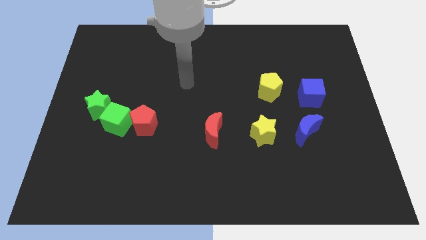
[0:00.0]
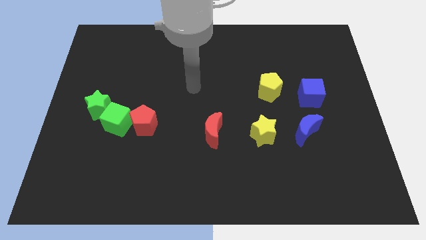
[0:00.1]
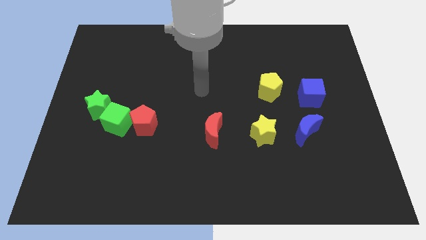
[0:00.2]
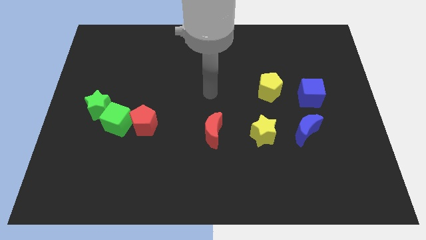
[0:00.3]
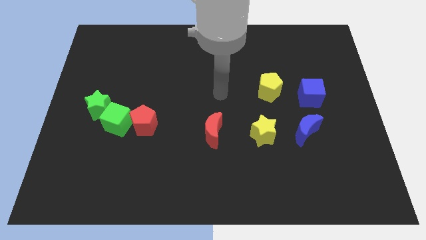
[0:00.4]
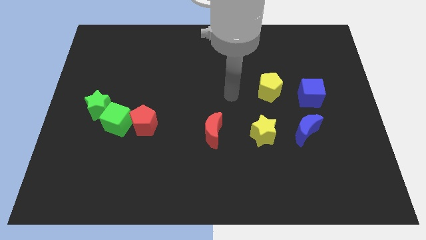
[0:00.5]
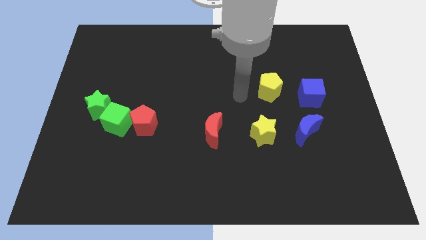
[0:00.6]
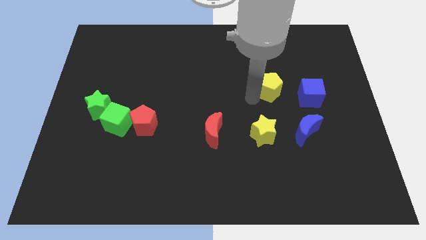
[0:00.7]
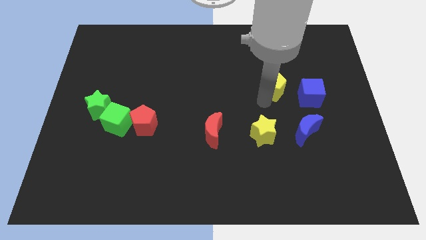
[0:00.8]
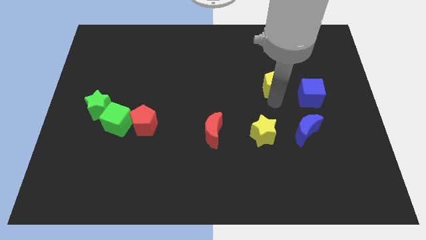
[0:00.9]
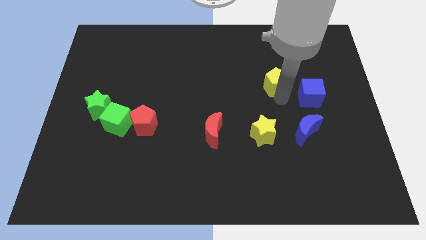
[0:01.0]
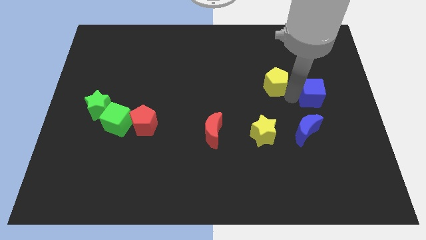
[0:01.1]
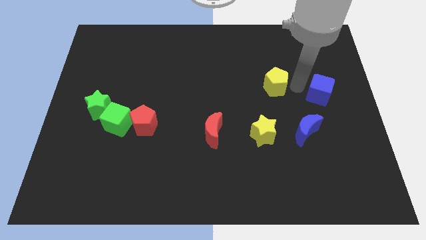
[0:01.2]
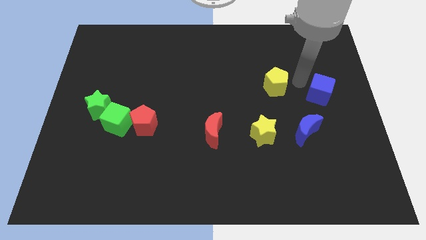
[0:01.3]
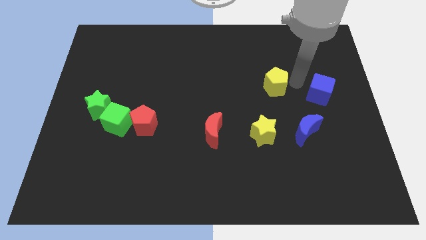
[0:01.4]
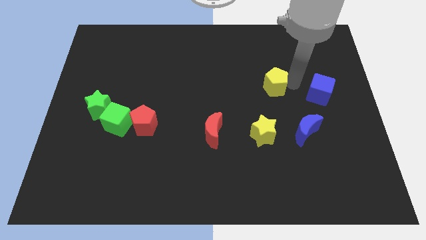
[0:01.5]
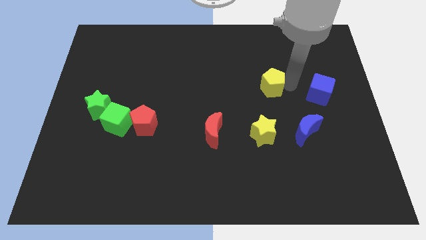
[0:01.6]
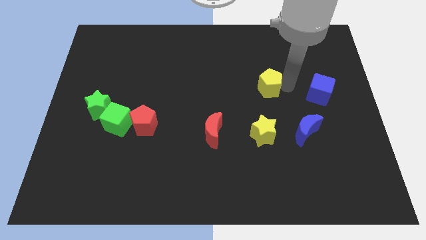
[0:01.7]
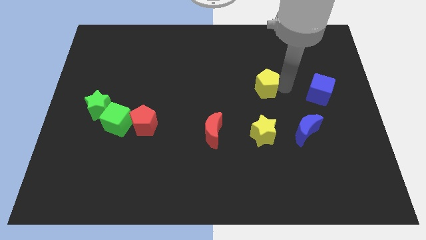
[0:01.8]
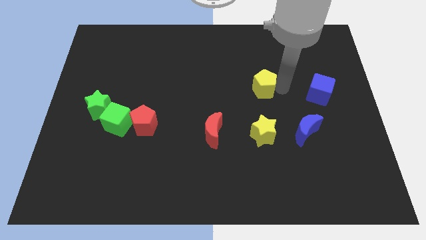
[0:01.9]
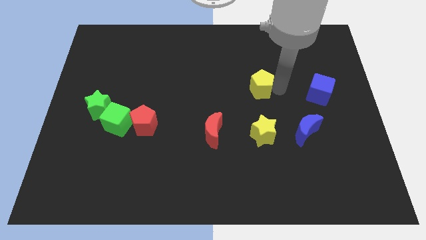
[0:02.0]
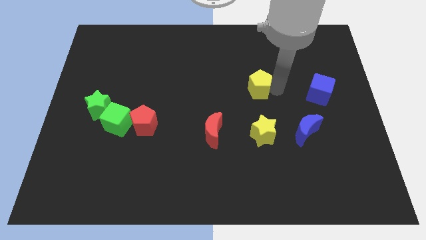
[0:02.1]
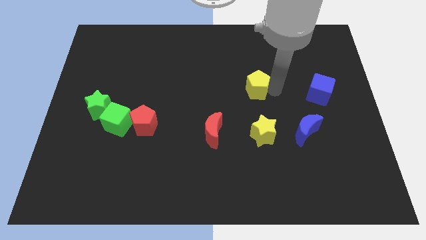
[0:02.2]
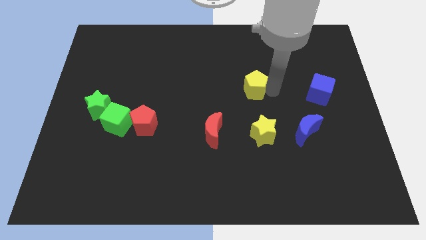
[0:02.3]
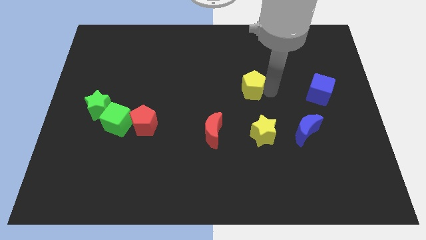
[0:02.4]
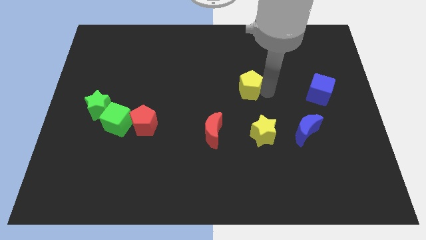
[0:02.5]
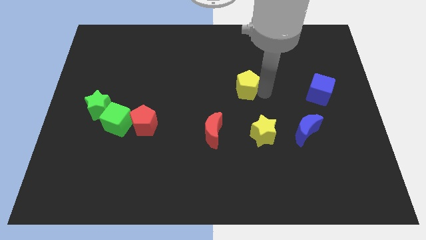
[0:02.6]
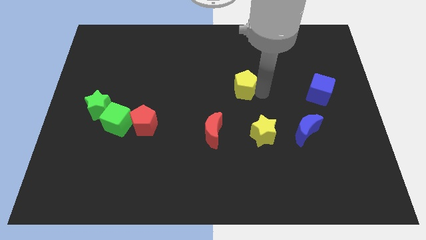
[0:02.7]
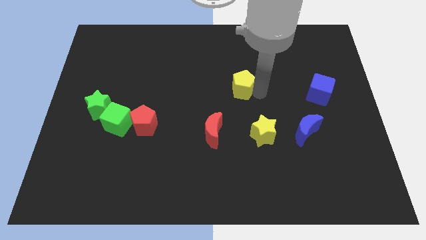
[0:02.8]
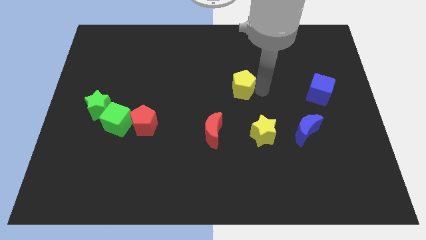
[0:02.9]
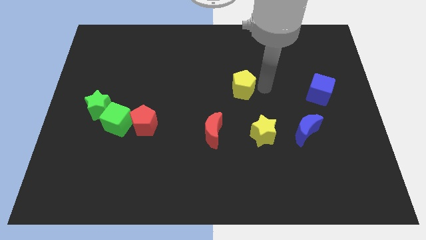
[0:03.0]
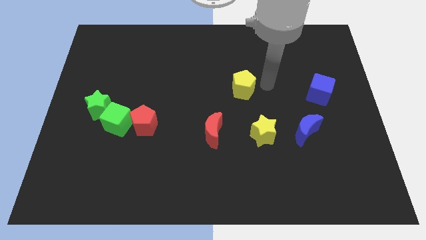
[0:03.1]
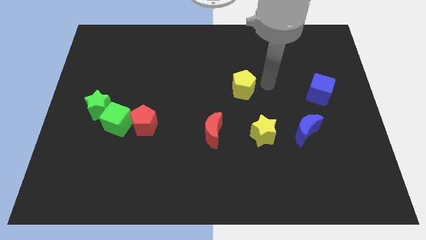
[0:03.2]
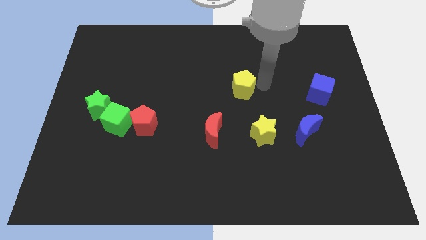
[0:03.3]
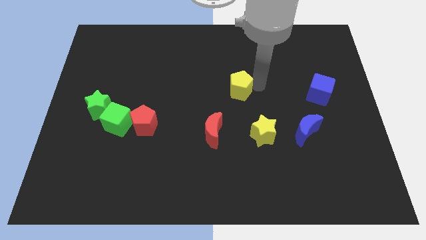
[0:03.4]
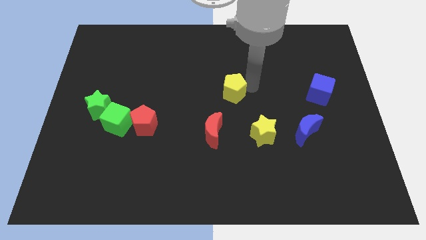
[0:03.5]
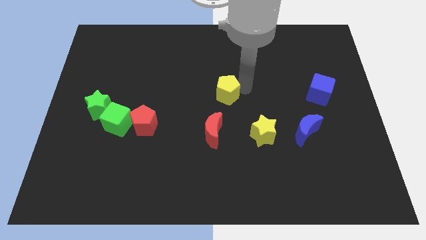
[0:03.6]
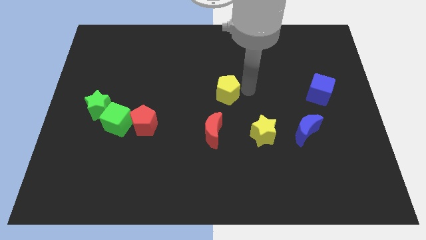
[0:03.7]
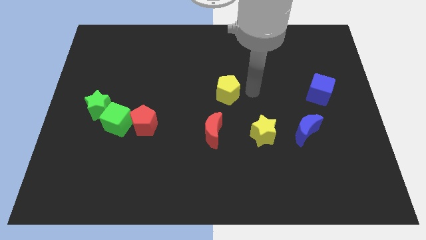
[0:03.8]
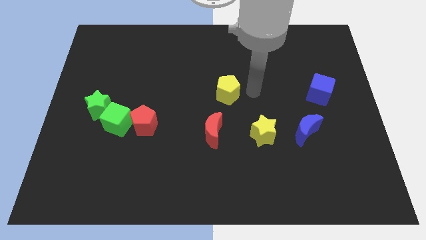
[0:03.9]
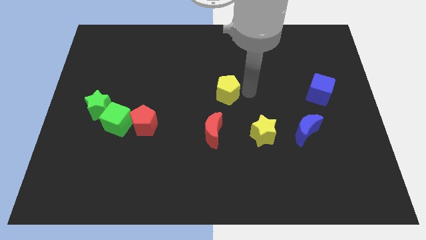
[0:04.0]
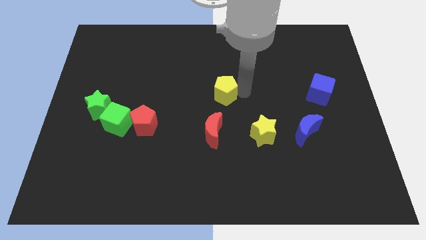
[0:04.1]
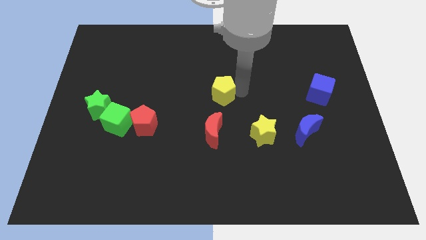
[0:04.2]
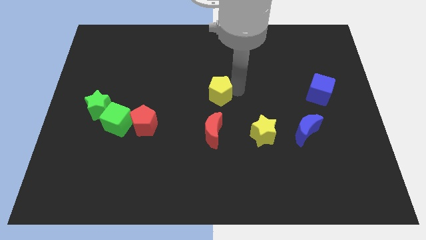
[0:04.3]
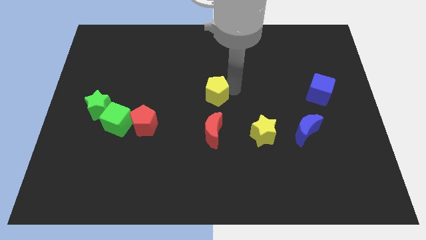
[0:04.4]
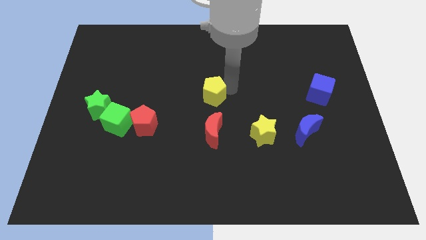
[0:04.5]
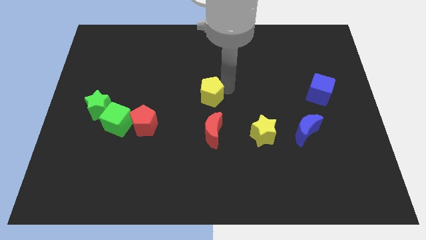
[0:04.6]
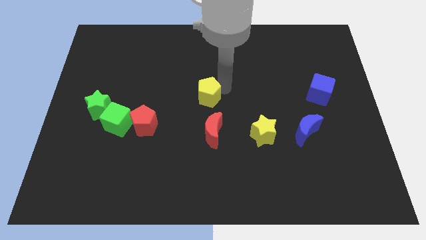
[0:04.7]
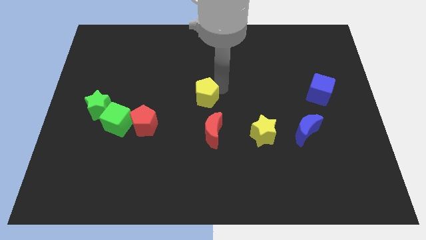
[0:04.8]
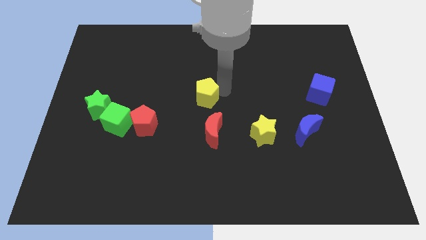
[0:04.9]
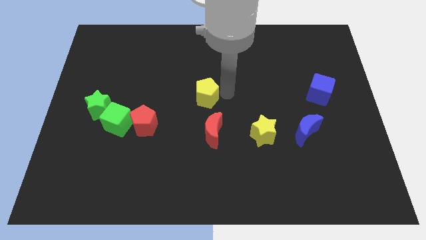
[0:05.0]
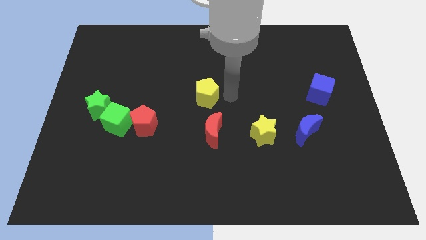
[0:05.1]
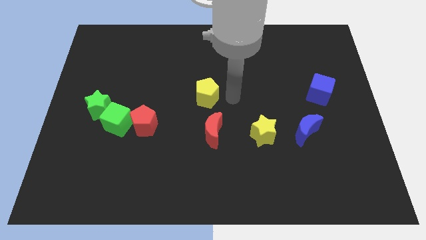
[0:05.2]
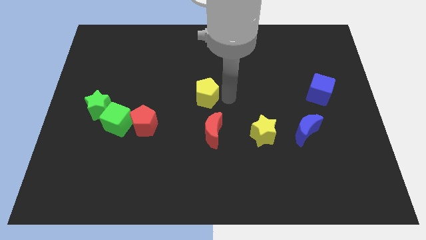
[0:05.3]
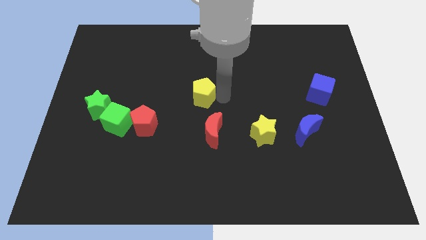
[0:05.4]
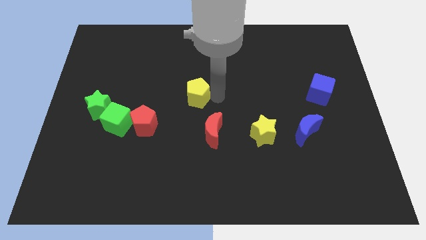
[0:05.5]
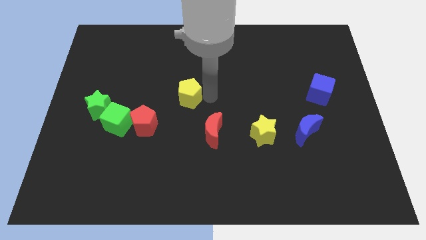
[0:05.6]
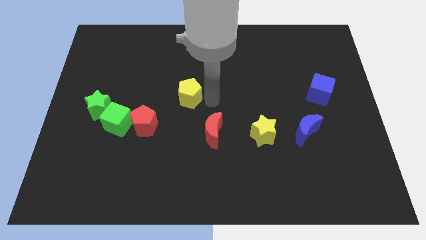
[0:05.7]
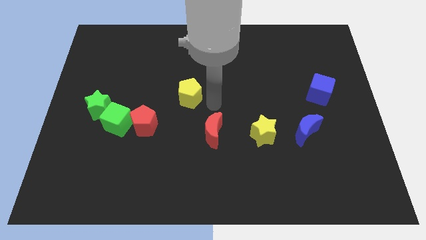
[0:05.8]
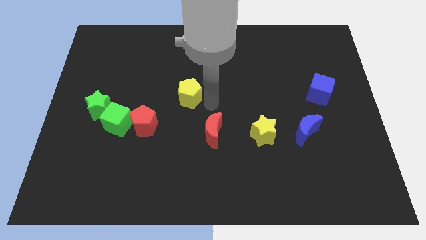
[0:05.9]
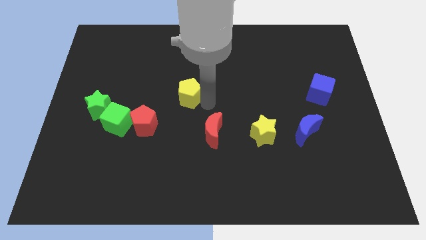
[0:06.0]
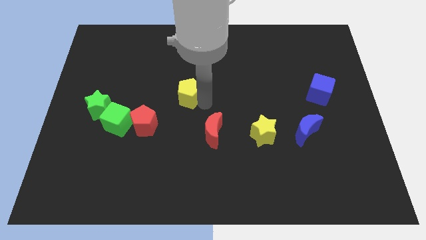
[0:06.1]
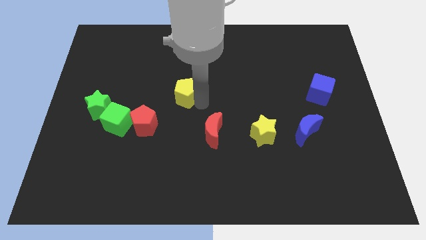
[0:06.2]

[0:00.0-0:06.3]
slide the yellow pentagon left

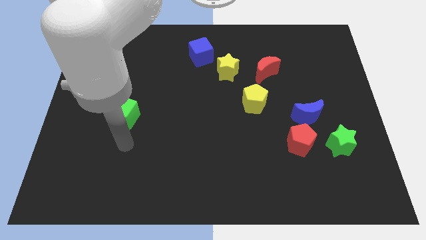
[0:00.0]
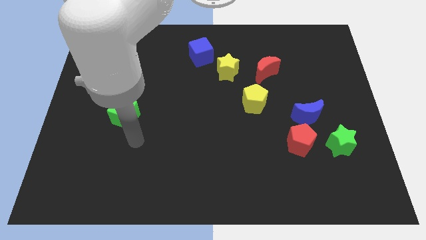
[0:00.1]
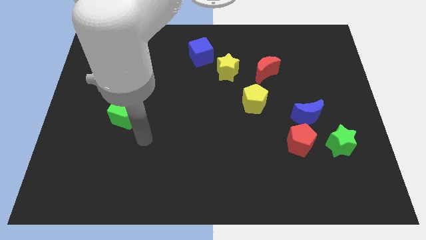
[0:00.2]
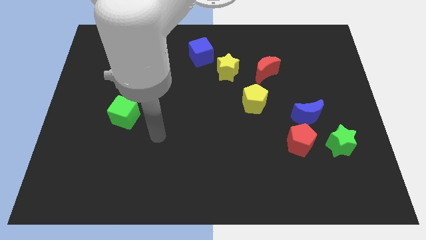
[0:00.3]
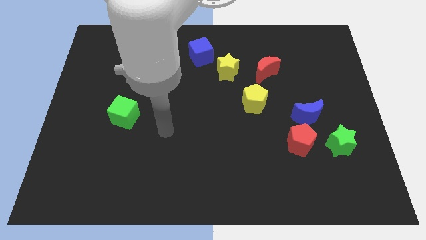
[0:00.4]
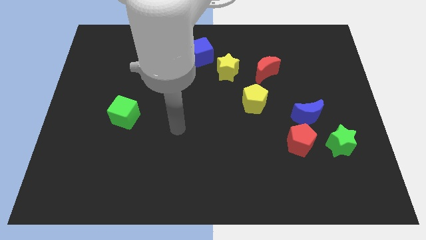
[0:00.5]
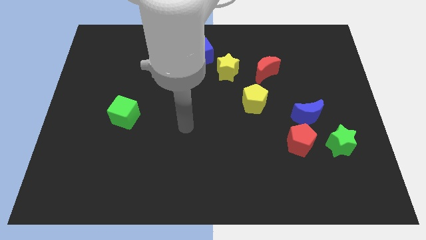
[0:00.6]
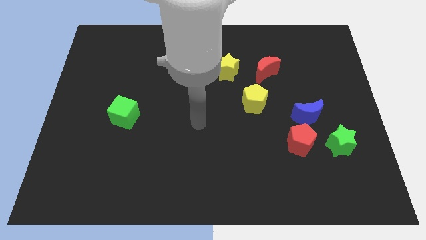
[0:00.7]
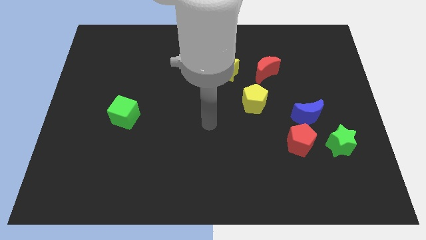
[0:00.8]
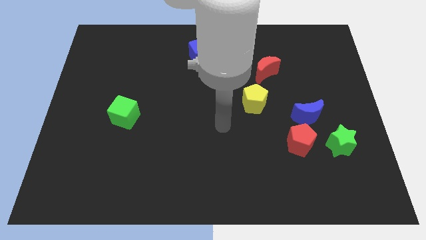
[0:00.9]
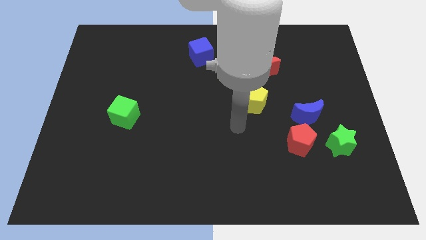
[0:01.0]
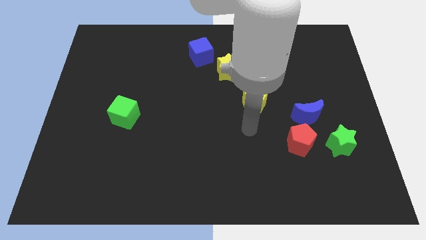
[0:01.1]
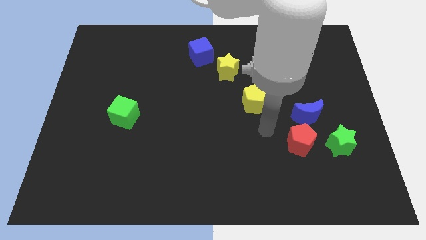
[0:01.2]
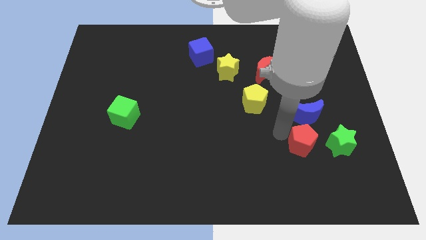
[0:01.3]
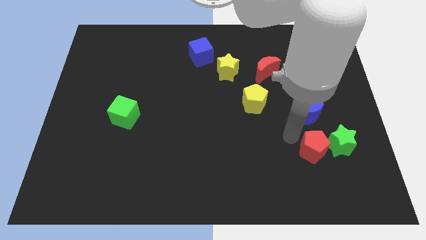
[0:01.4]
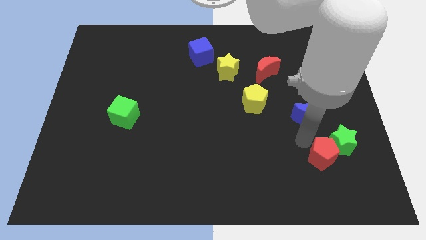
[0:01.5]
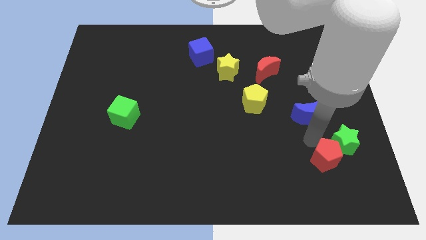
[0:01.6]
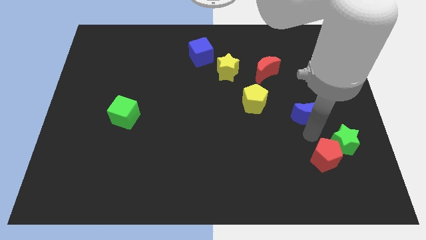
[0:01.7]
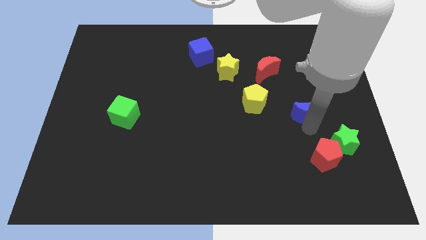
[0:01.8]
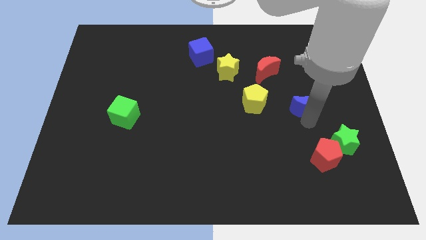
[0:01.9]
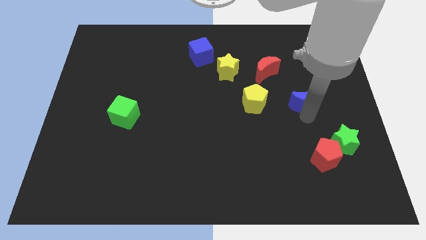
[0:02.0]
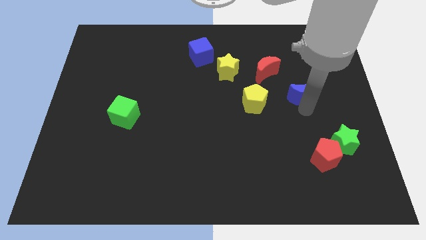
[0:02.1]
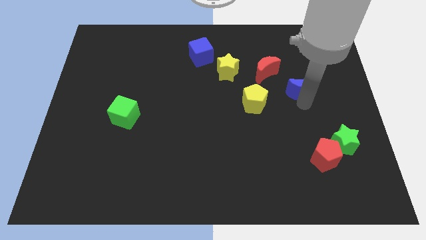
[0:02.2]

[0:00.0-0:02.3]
slightly slide the blue moon upwards
